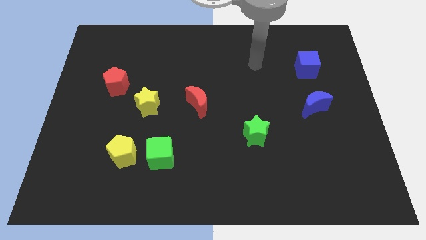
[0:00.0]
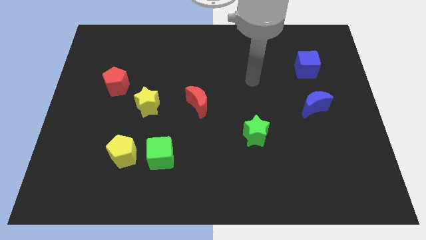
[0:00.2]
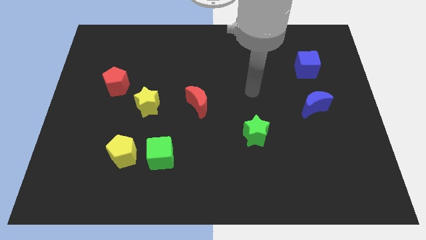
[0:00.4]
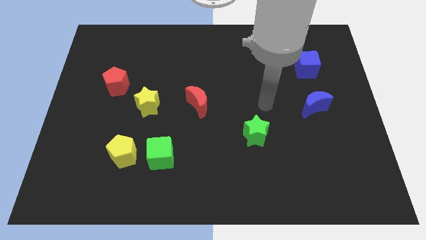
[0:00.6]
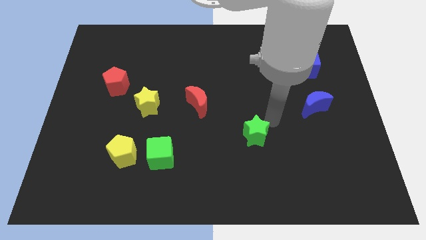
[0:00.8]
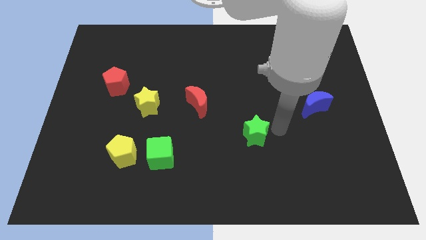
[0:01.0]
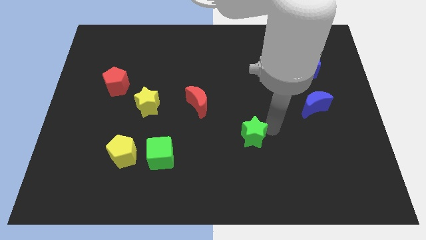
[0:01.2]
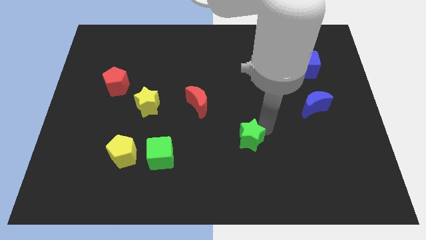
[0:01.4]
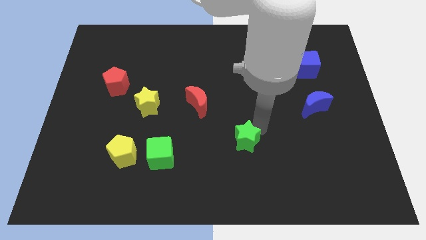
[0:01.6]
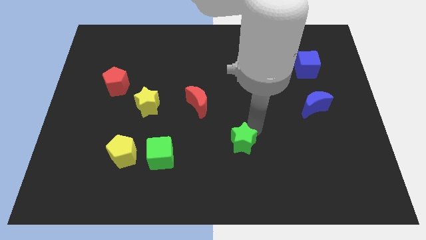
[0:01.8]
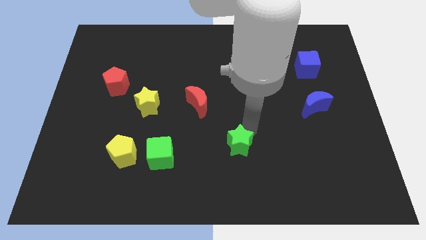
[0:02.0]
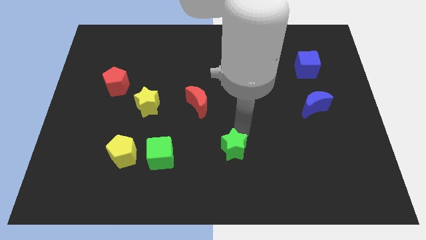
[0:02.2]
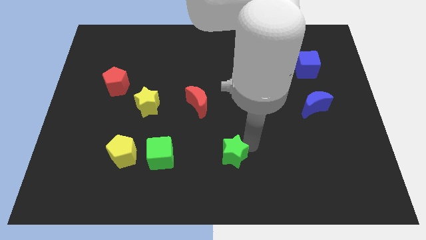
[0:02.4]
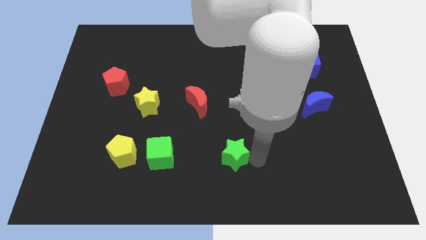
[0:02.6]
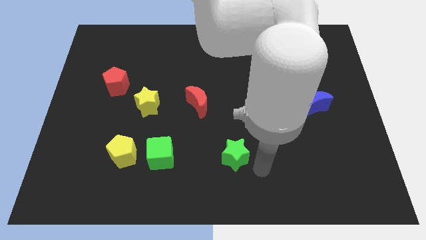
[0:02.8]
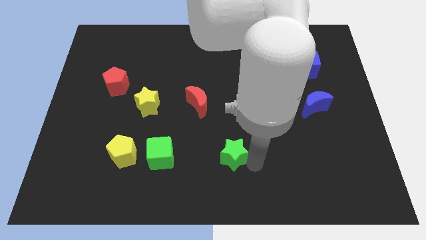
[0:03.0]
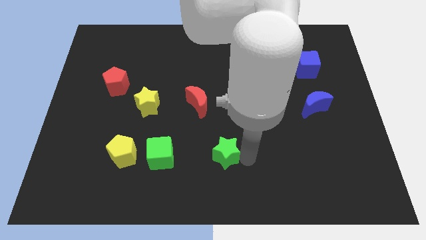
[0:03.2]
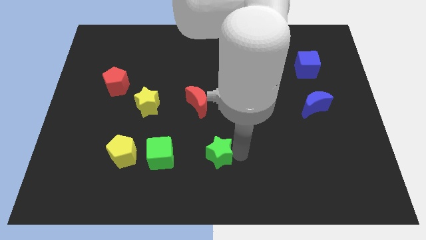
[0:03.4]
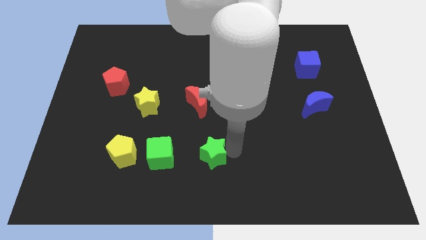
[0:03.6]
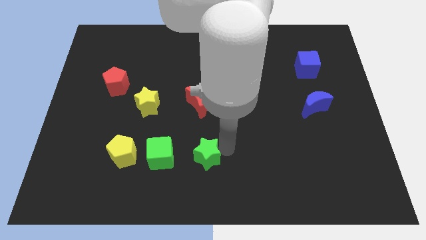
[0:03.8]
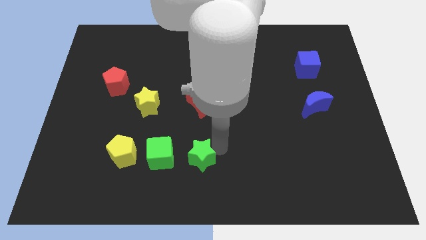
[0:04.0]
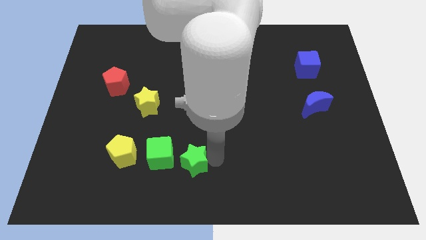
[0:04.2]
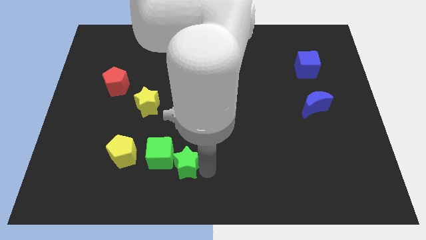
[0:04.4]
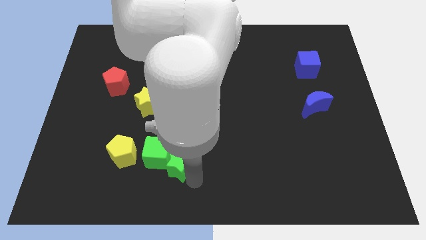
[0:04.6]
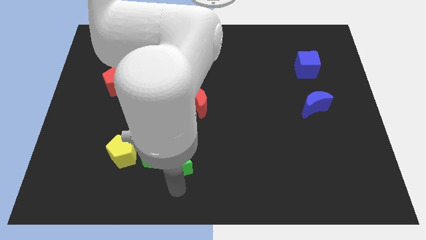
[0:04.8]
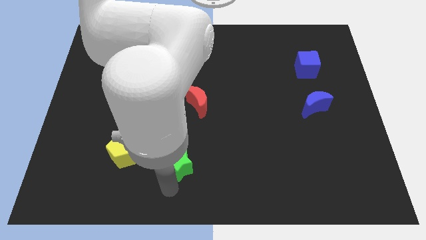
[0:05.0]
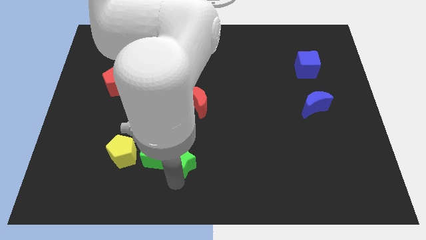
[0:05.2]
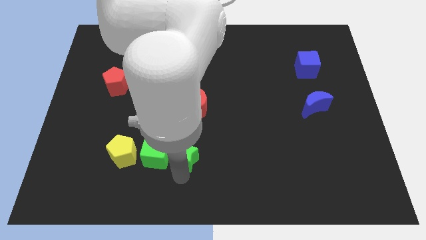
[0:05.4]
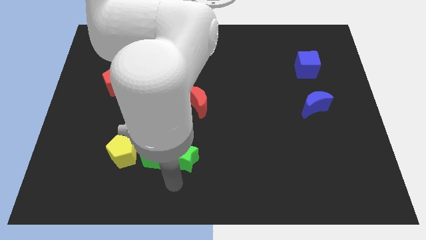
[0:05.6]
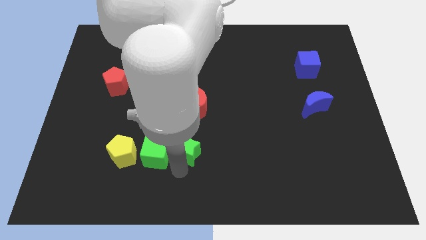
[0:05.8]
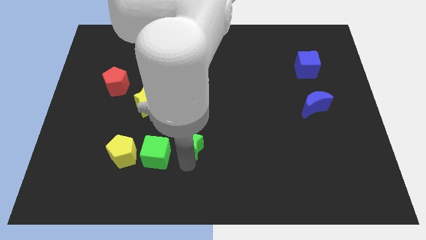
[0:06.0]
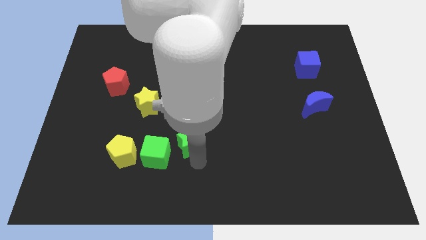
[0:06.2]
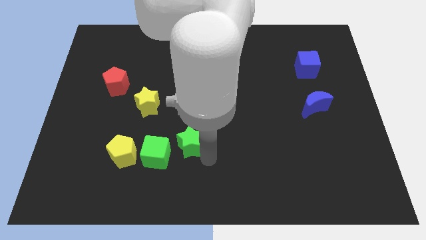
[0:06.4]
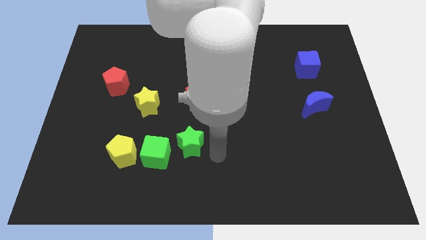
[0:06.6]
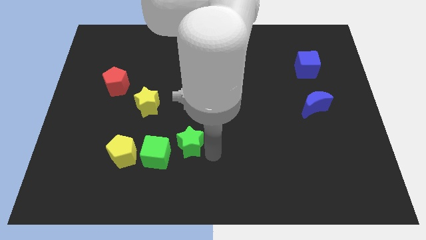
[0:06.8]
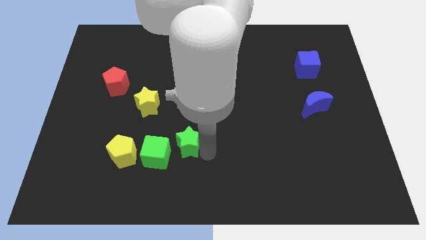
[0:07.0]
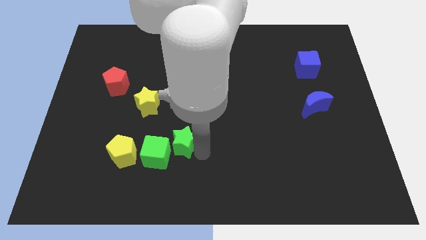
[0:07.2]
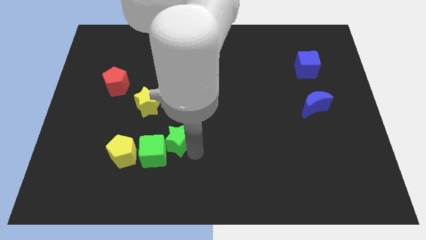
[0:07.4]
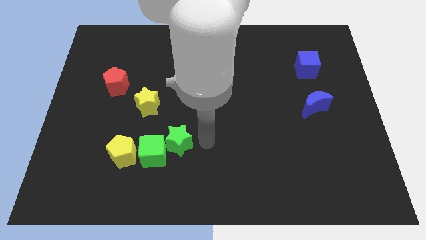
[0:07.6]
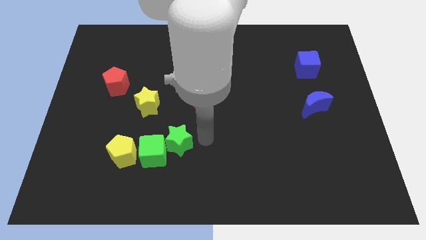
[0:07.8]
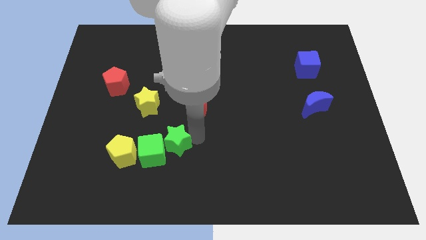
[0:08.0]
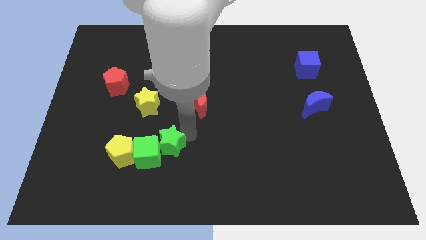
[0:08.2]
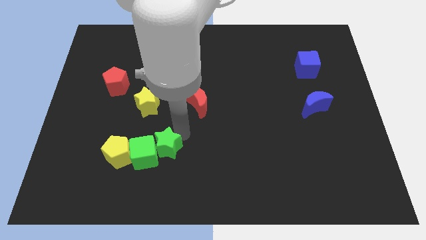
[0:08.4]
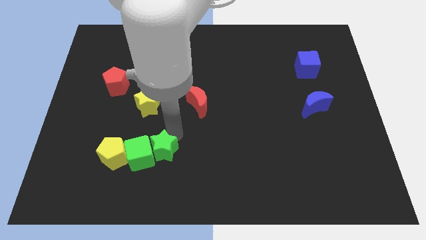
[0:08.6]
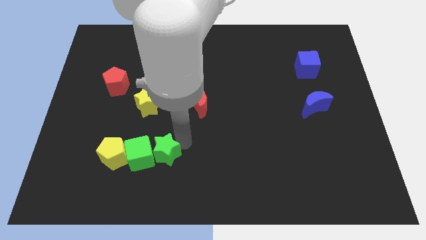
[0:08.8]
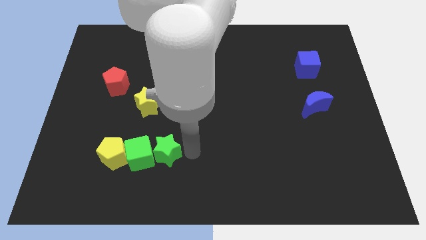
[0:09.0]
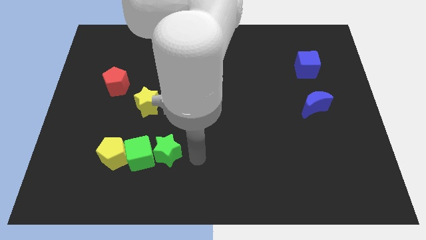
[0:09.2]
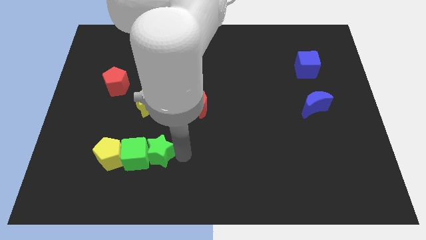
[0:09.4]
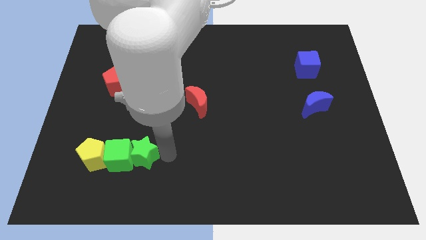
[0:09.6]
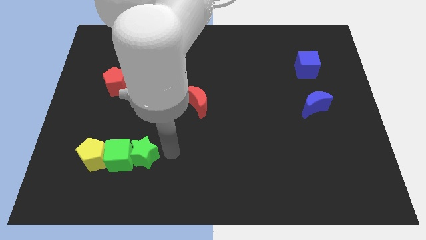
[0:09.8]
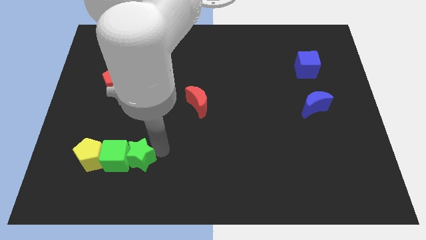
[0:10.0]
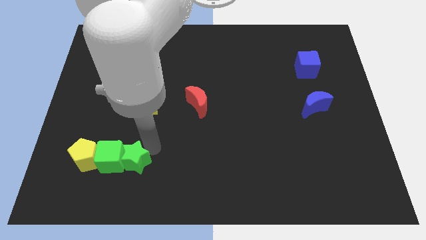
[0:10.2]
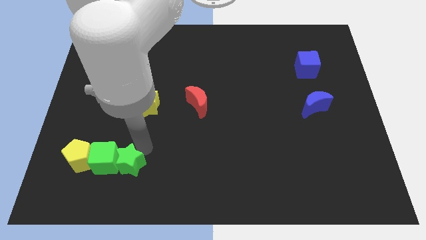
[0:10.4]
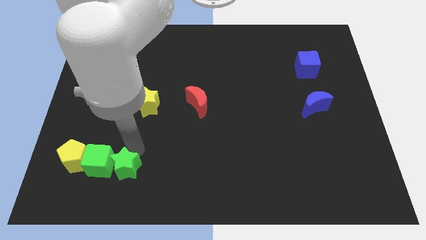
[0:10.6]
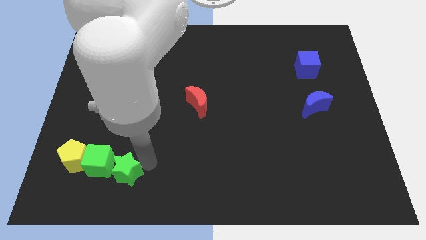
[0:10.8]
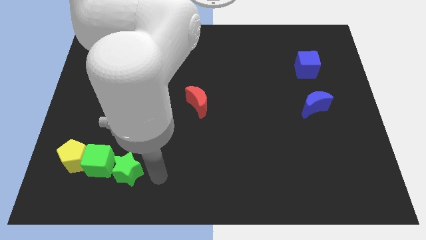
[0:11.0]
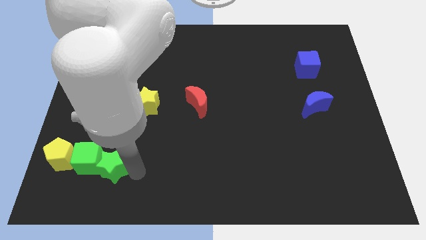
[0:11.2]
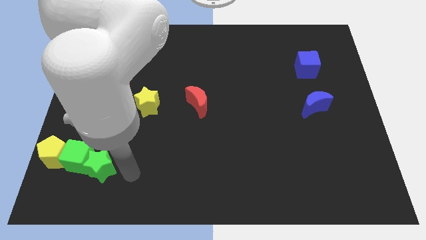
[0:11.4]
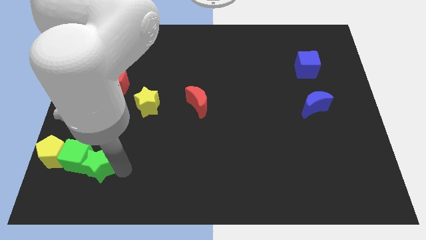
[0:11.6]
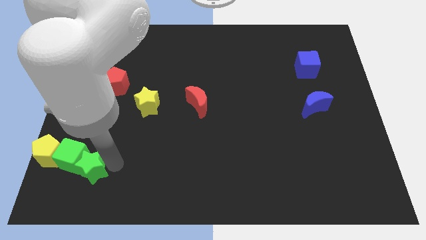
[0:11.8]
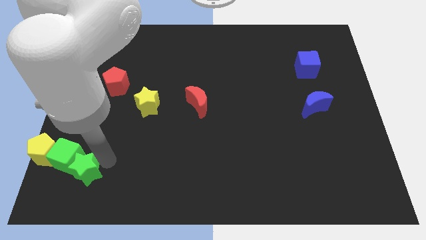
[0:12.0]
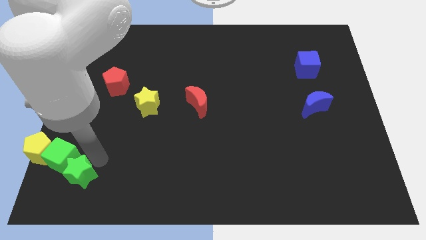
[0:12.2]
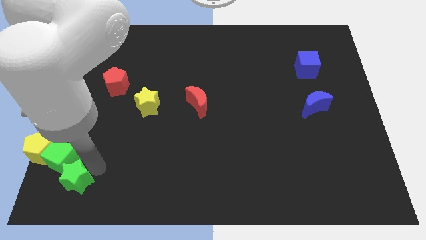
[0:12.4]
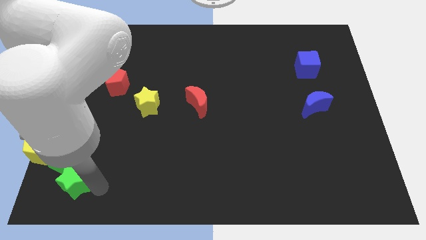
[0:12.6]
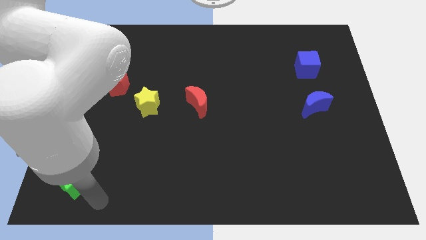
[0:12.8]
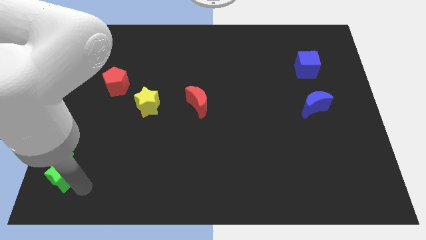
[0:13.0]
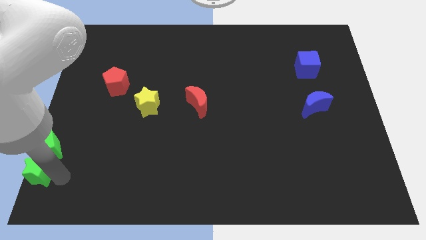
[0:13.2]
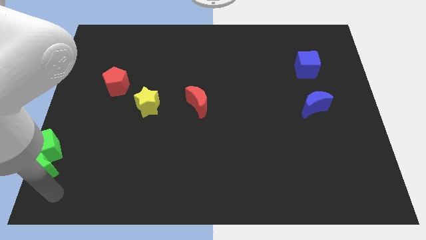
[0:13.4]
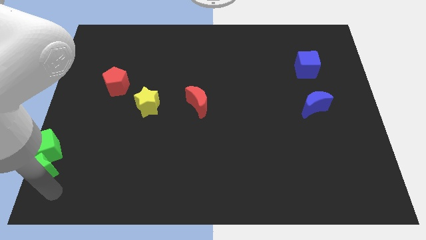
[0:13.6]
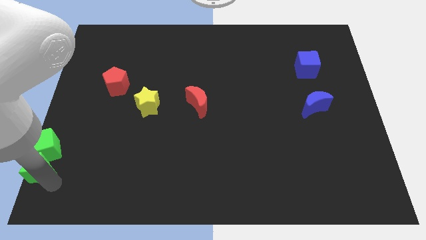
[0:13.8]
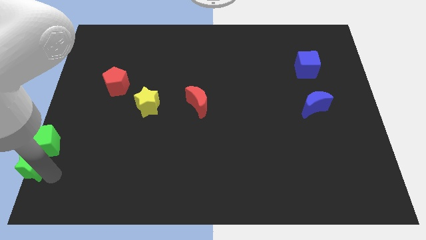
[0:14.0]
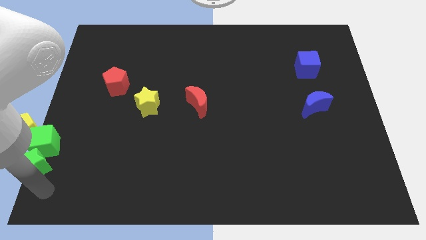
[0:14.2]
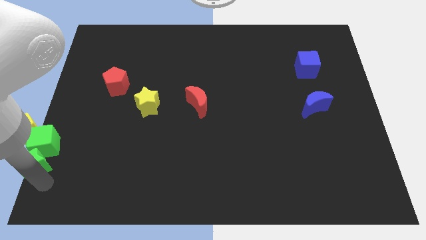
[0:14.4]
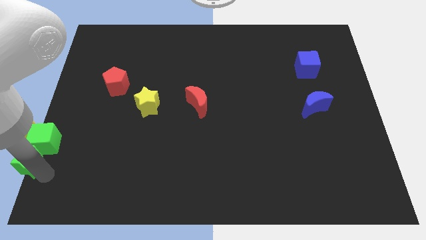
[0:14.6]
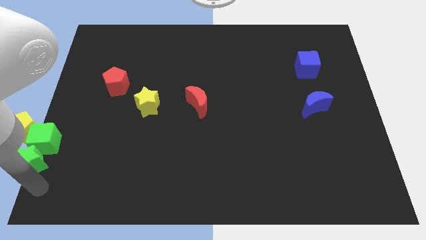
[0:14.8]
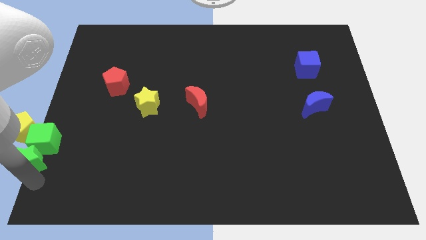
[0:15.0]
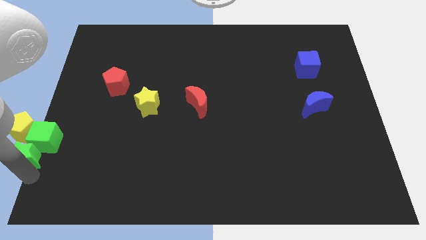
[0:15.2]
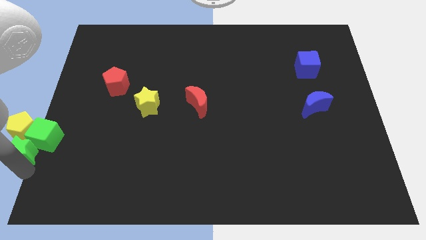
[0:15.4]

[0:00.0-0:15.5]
slide the green star to the yellow pentagon
